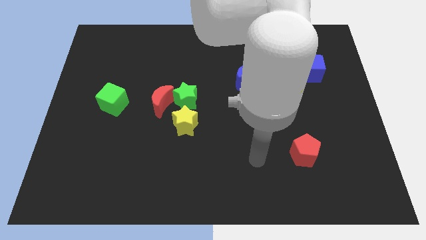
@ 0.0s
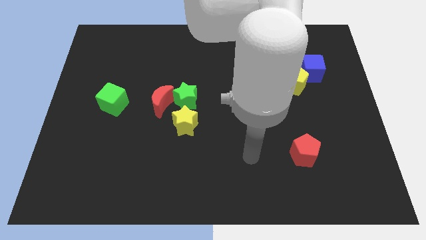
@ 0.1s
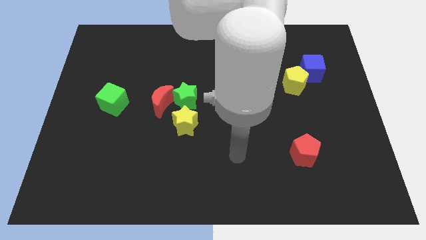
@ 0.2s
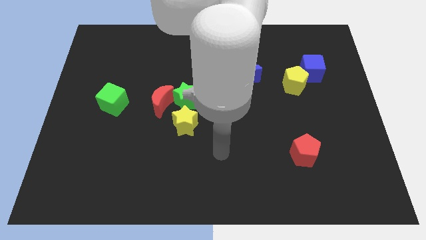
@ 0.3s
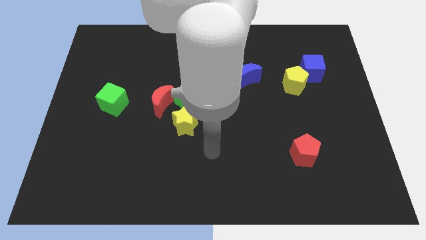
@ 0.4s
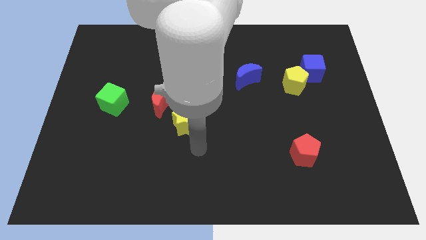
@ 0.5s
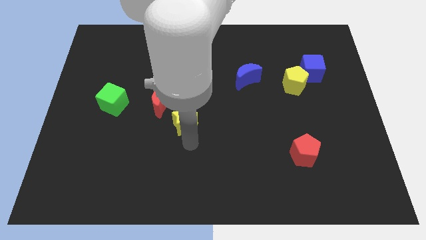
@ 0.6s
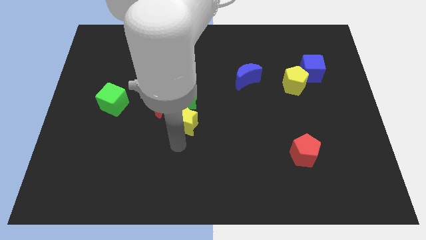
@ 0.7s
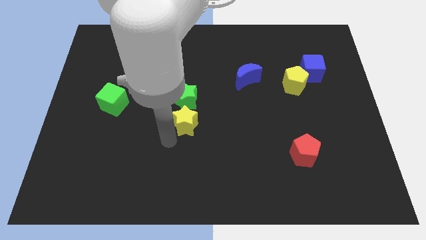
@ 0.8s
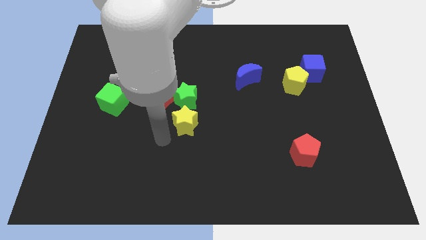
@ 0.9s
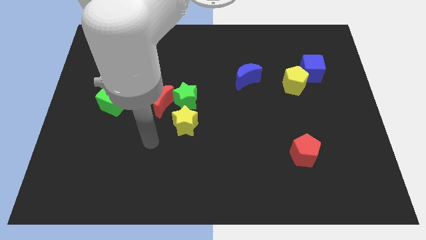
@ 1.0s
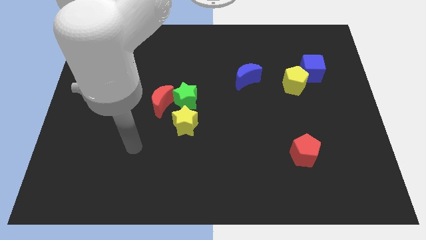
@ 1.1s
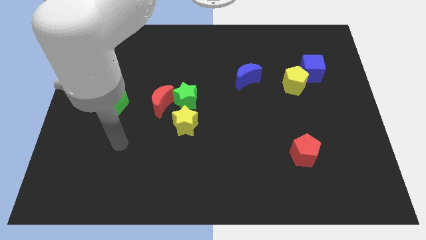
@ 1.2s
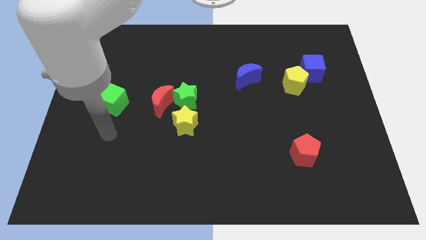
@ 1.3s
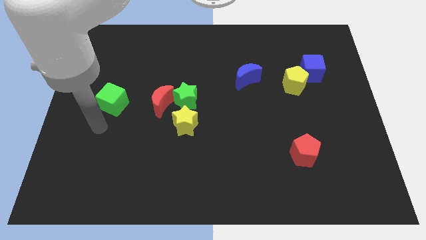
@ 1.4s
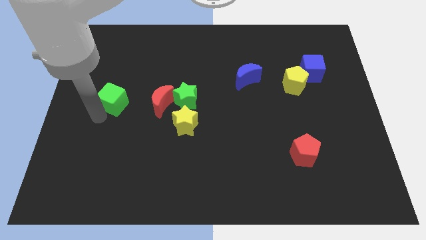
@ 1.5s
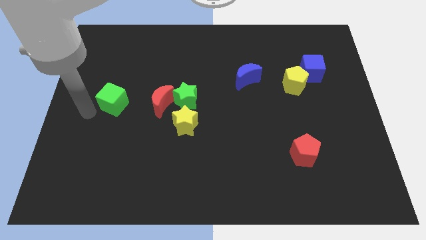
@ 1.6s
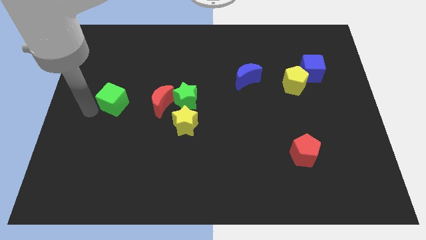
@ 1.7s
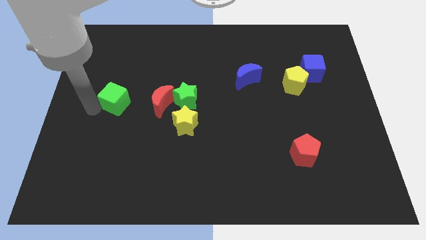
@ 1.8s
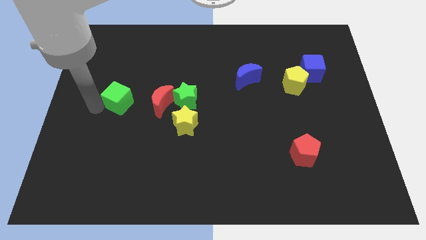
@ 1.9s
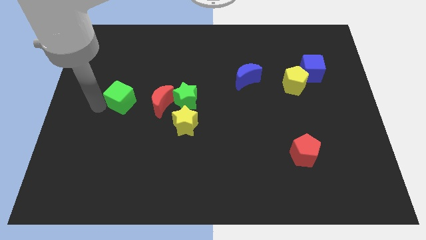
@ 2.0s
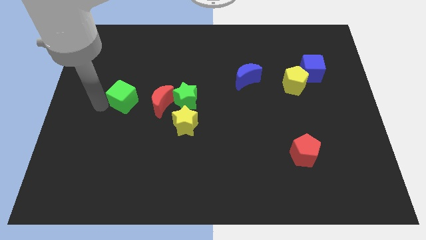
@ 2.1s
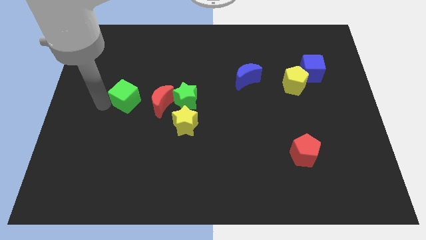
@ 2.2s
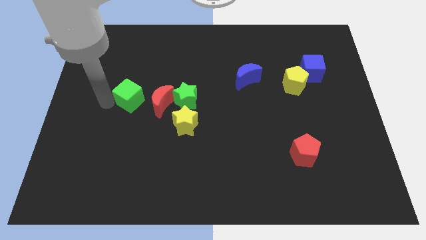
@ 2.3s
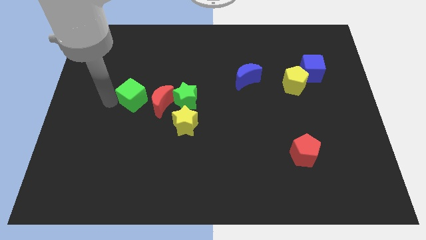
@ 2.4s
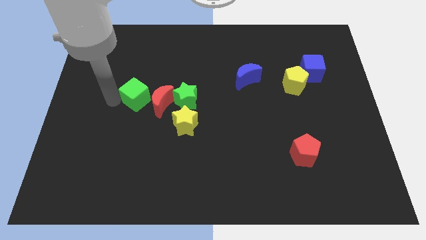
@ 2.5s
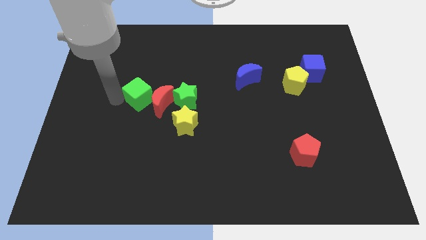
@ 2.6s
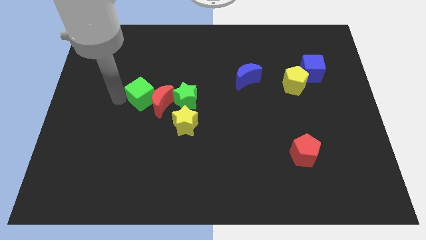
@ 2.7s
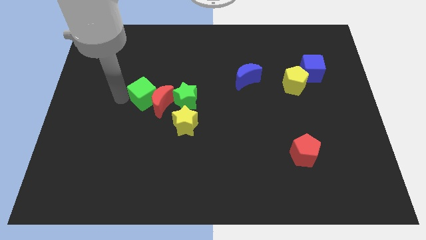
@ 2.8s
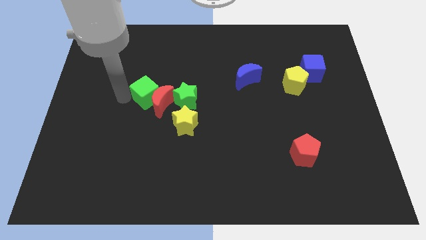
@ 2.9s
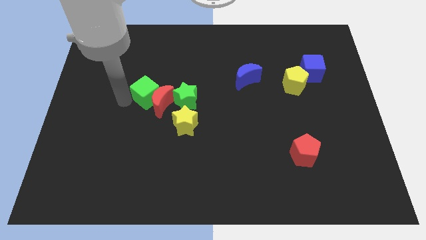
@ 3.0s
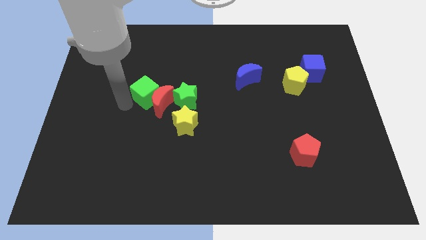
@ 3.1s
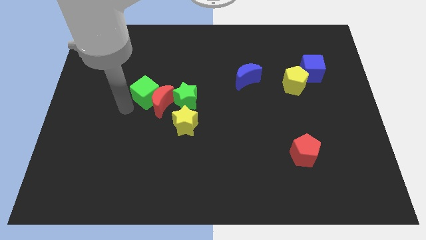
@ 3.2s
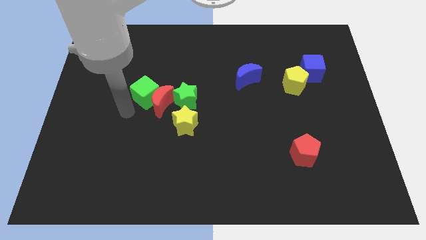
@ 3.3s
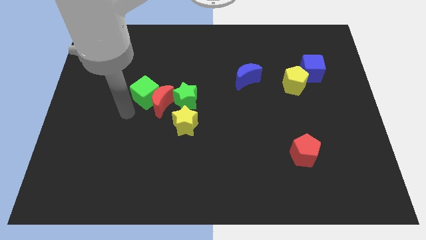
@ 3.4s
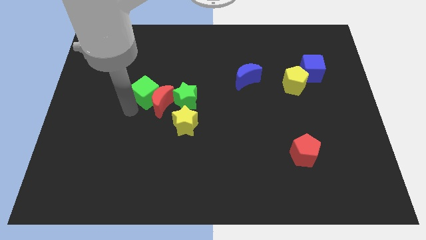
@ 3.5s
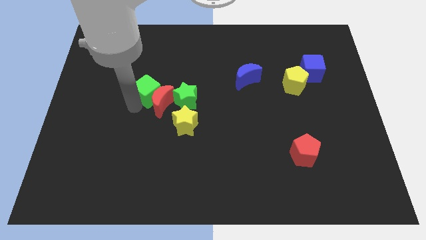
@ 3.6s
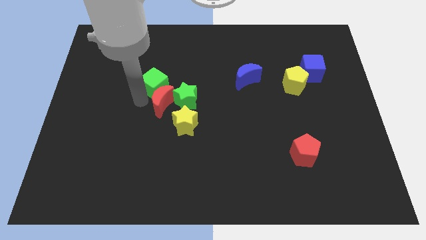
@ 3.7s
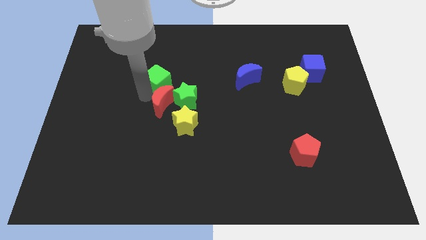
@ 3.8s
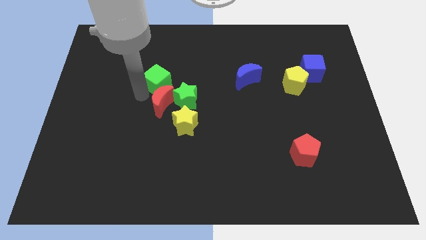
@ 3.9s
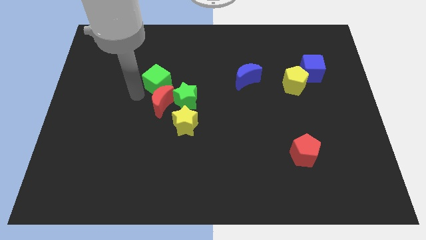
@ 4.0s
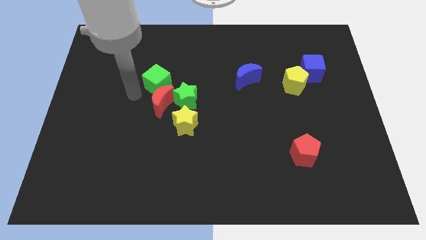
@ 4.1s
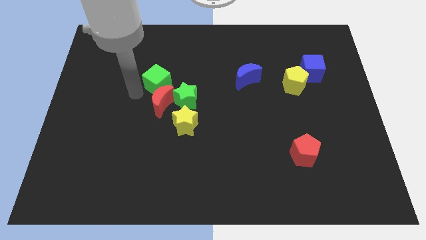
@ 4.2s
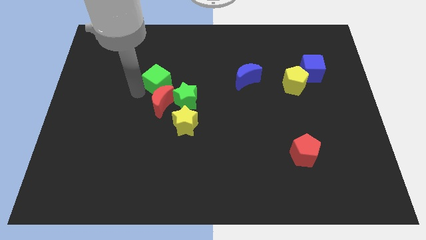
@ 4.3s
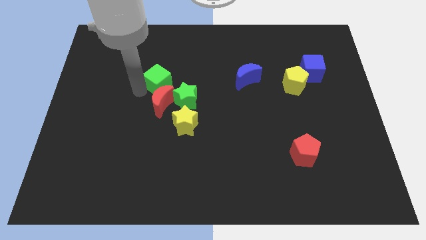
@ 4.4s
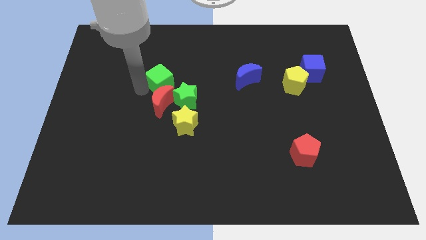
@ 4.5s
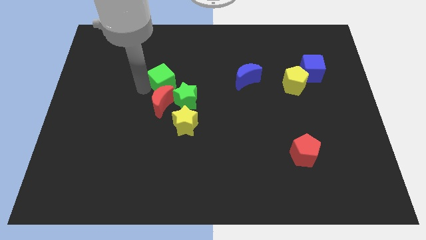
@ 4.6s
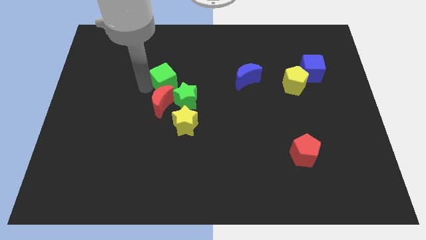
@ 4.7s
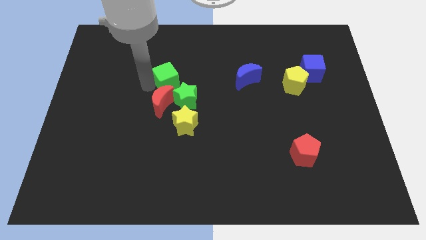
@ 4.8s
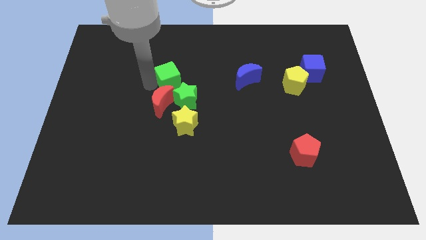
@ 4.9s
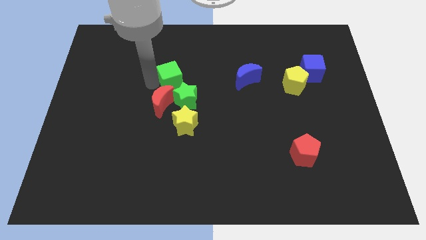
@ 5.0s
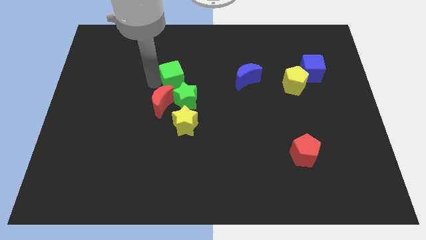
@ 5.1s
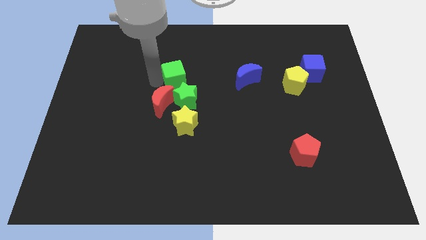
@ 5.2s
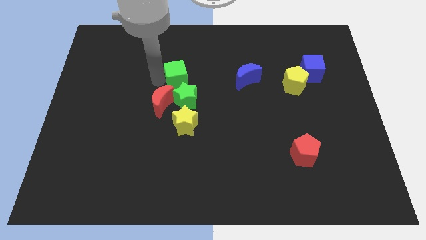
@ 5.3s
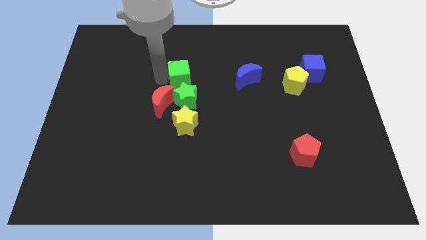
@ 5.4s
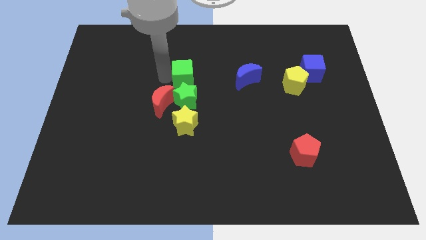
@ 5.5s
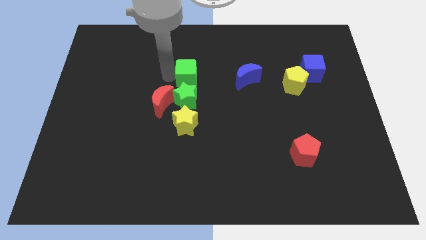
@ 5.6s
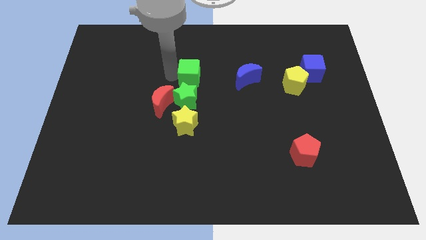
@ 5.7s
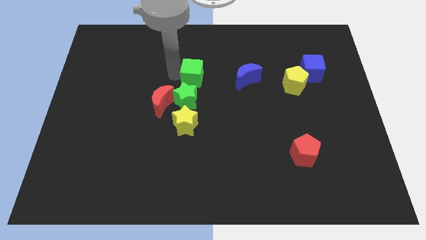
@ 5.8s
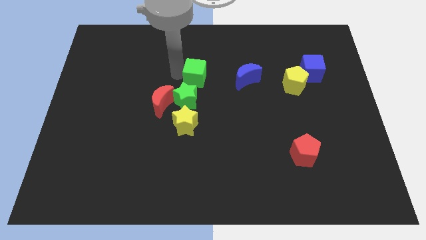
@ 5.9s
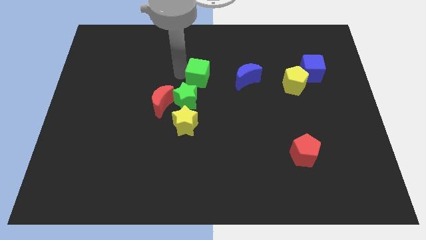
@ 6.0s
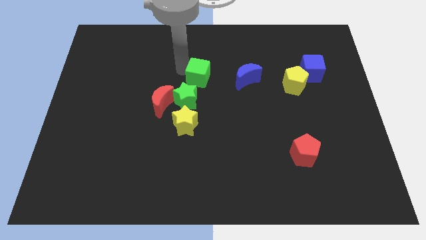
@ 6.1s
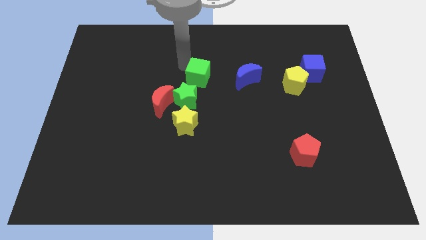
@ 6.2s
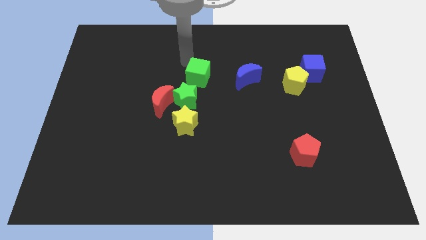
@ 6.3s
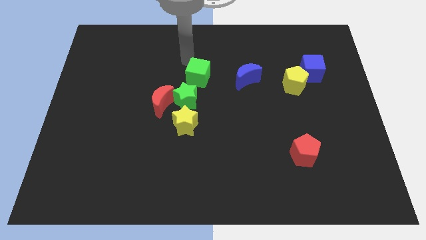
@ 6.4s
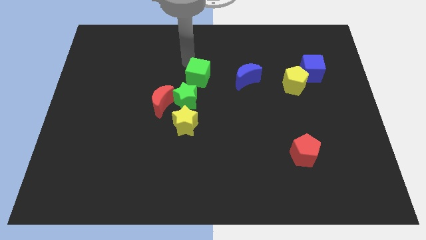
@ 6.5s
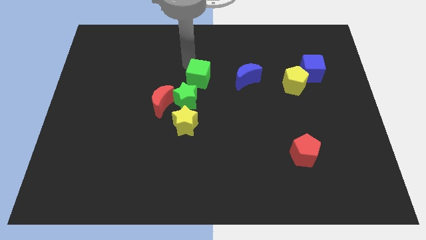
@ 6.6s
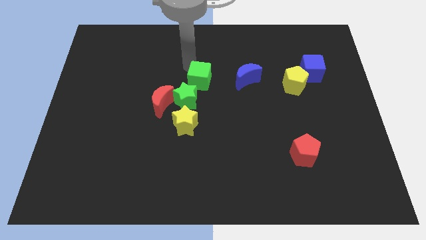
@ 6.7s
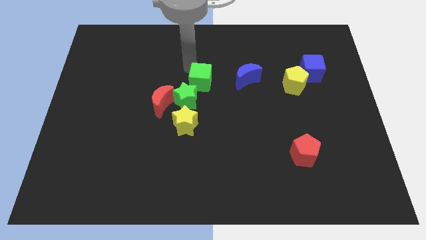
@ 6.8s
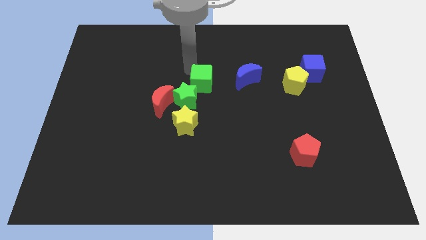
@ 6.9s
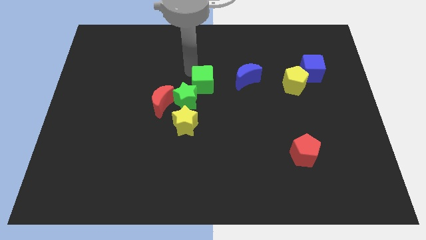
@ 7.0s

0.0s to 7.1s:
push the green cube right

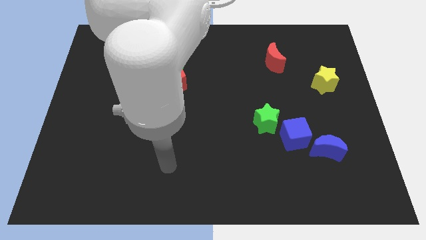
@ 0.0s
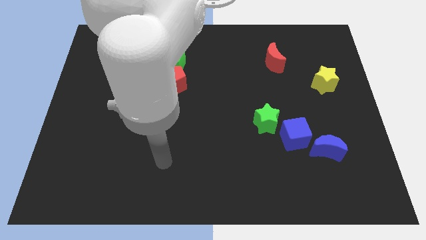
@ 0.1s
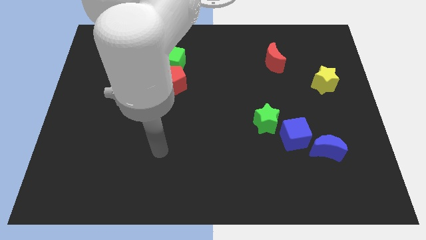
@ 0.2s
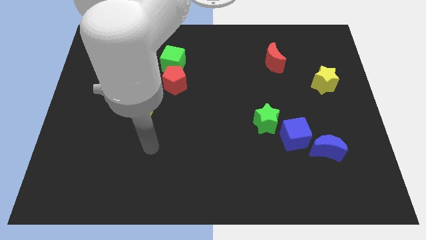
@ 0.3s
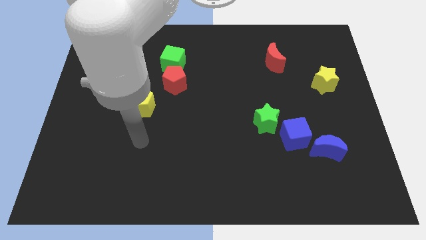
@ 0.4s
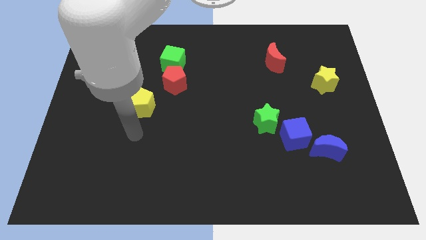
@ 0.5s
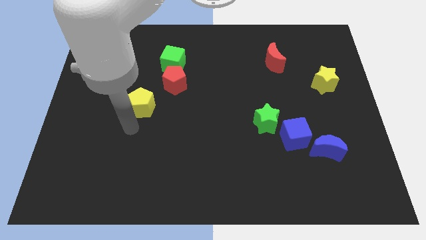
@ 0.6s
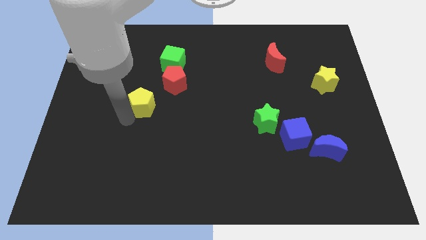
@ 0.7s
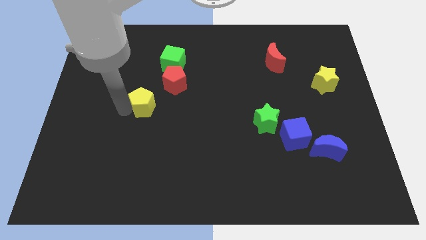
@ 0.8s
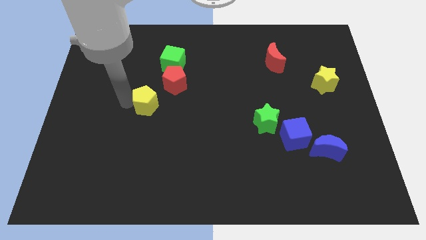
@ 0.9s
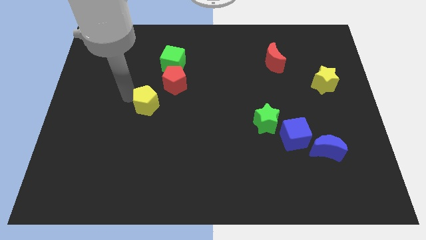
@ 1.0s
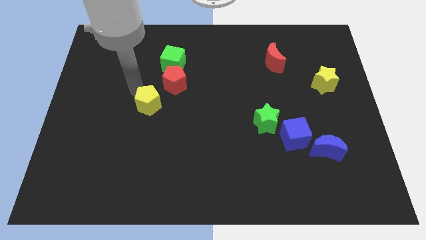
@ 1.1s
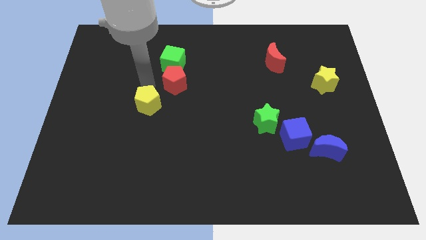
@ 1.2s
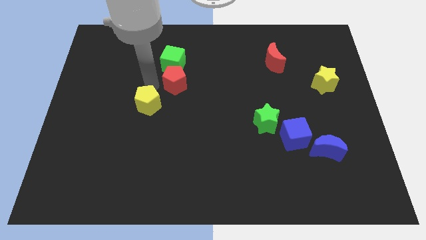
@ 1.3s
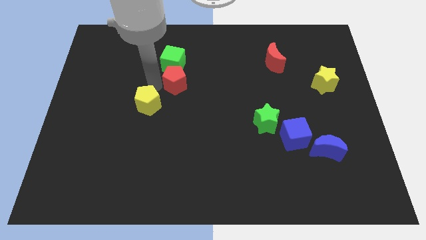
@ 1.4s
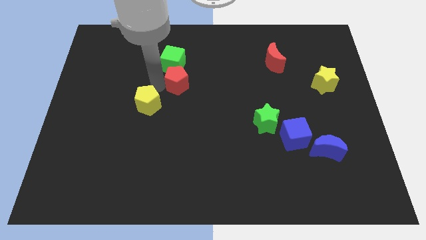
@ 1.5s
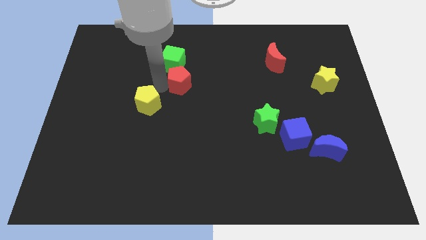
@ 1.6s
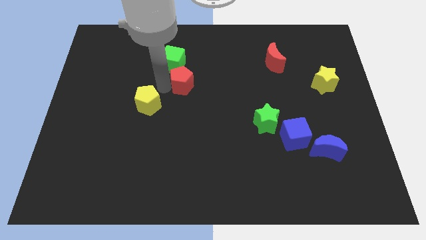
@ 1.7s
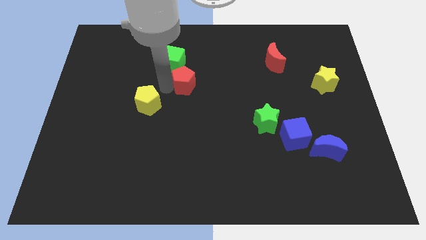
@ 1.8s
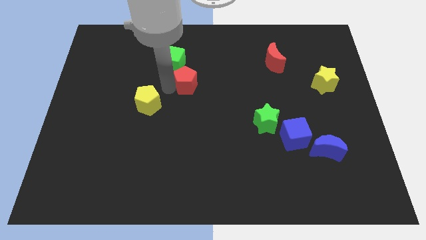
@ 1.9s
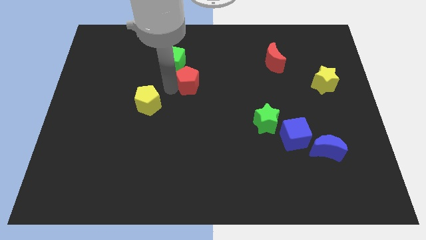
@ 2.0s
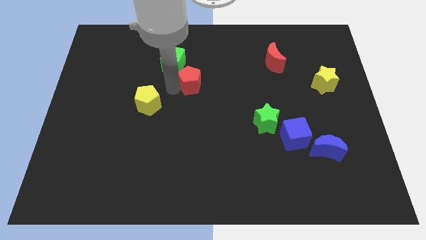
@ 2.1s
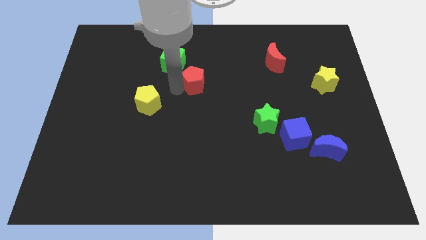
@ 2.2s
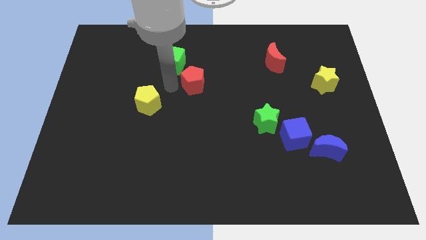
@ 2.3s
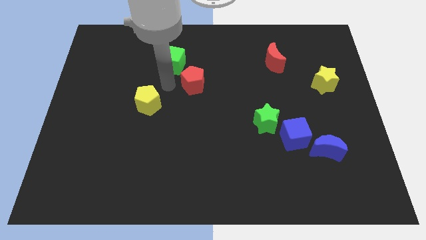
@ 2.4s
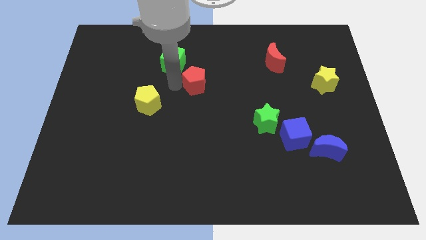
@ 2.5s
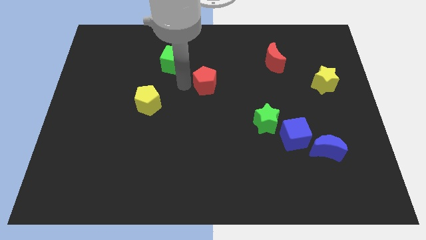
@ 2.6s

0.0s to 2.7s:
push the red pentagon right a little
